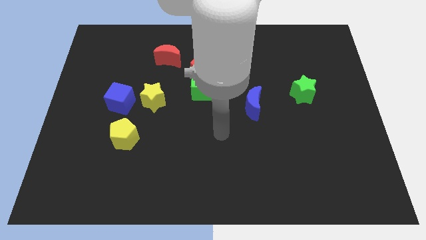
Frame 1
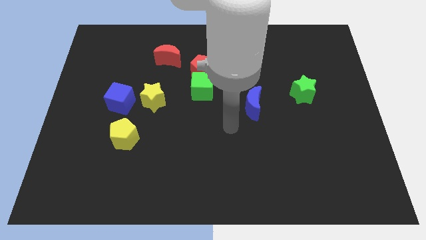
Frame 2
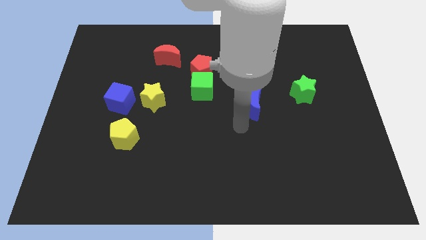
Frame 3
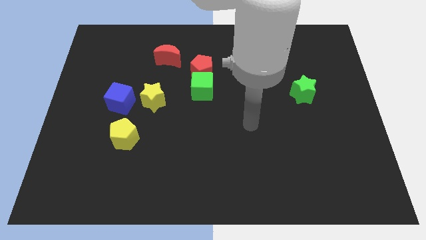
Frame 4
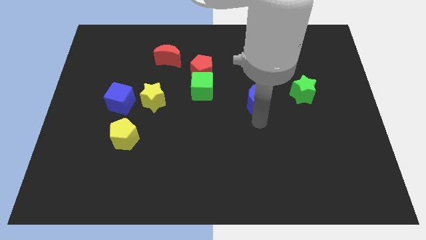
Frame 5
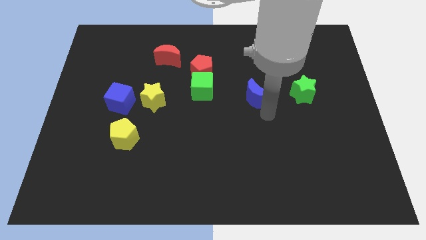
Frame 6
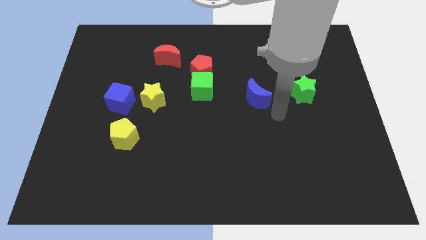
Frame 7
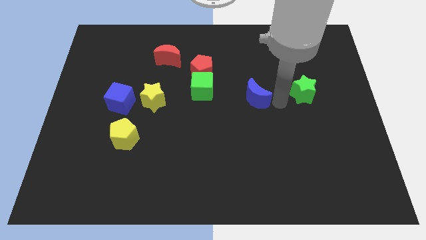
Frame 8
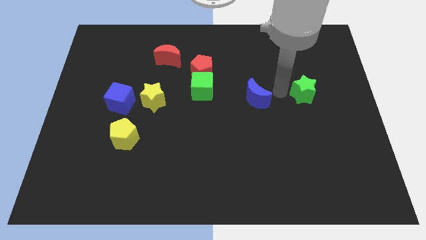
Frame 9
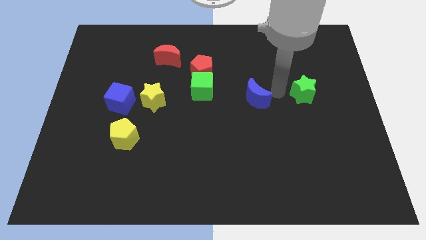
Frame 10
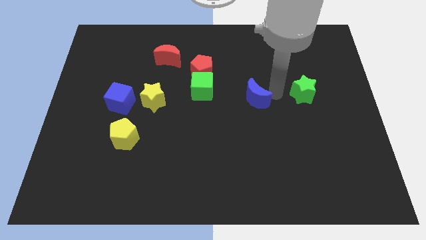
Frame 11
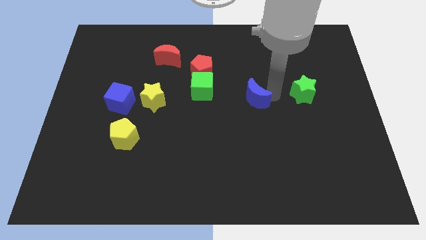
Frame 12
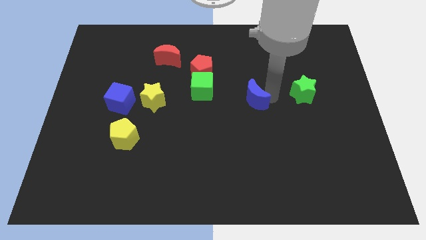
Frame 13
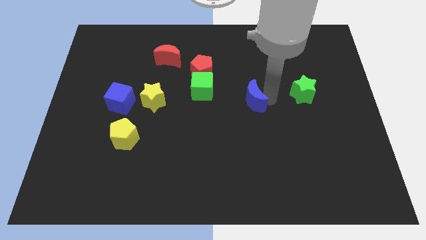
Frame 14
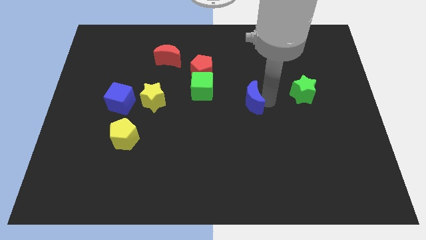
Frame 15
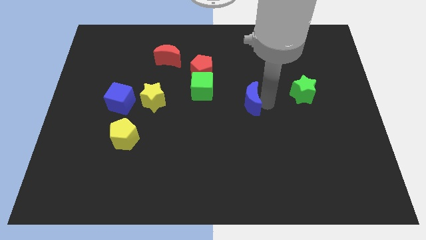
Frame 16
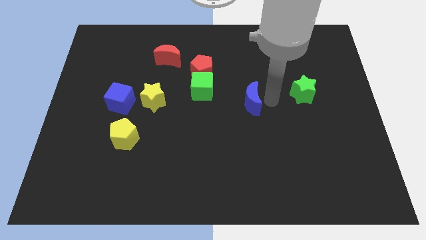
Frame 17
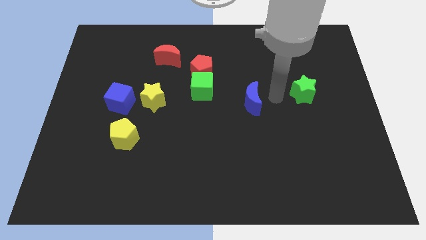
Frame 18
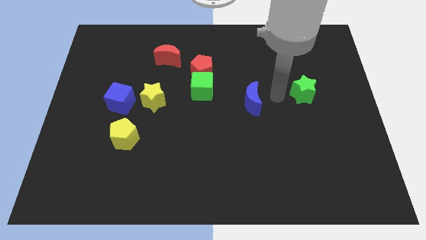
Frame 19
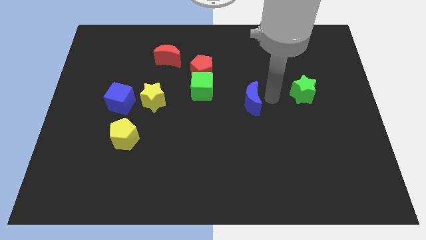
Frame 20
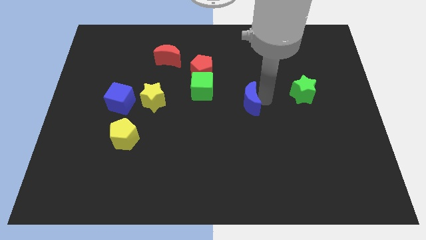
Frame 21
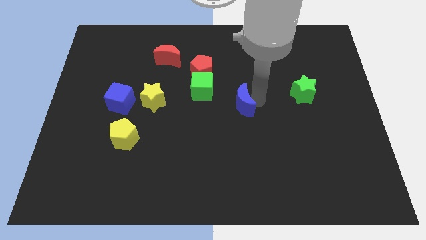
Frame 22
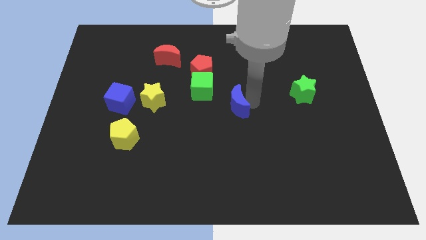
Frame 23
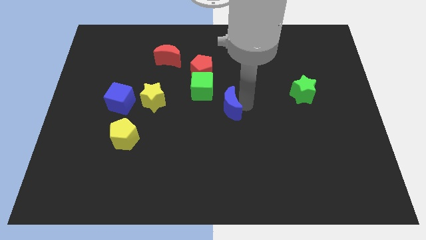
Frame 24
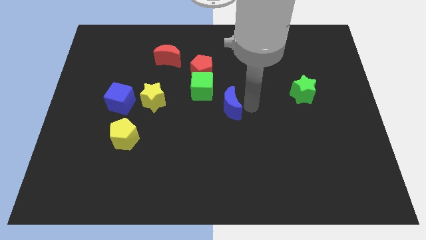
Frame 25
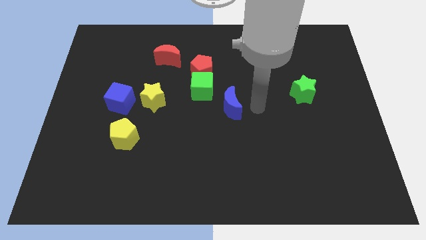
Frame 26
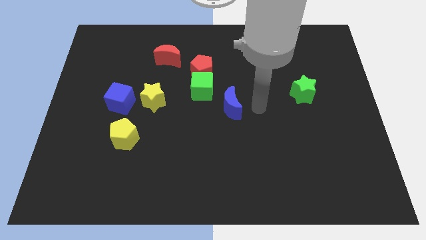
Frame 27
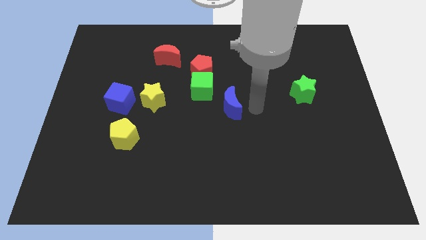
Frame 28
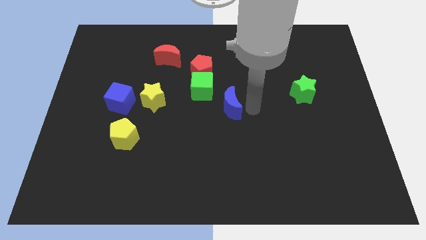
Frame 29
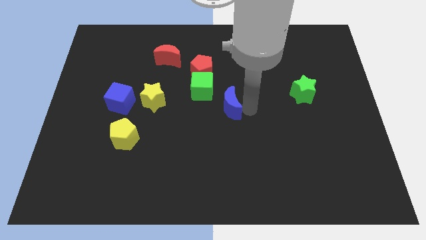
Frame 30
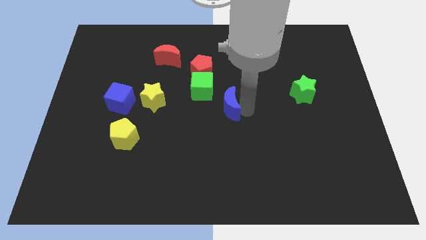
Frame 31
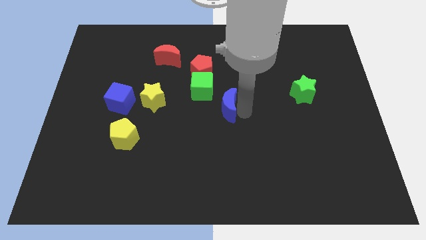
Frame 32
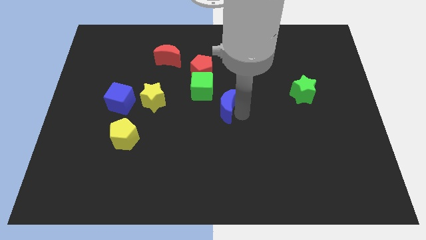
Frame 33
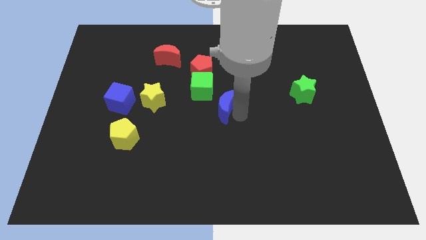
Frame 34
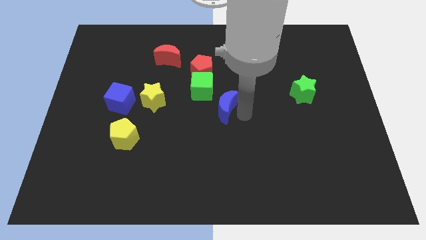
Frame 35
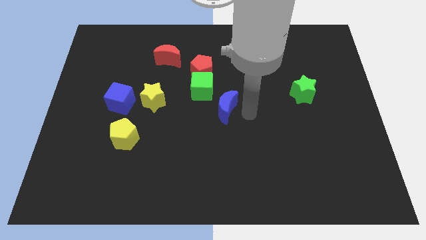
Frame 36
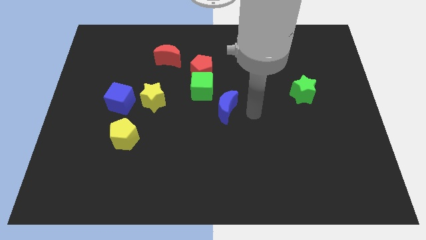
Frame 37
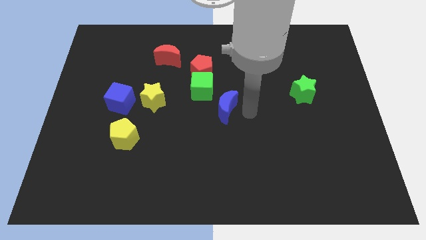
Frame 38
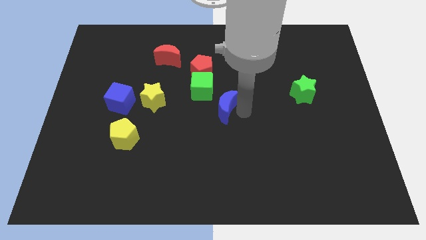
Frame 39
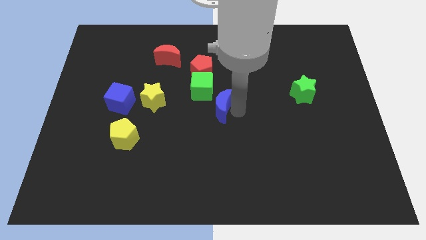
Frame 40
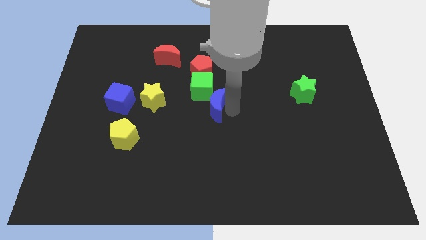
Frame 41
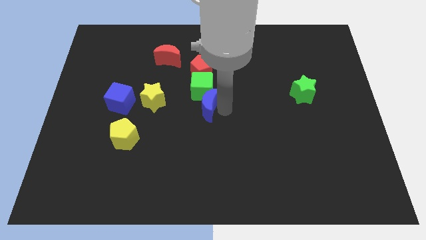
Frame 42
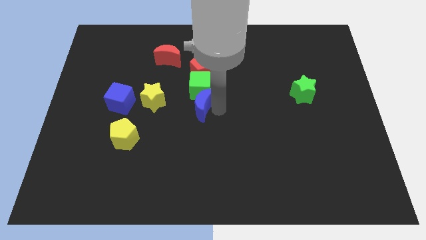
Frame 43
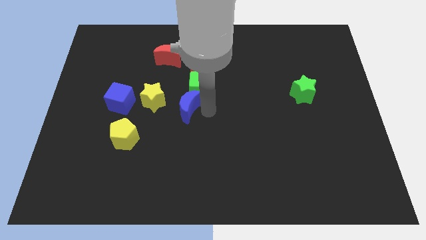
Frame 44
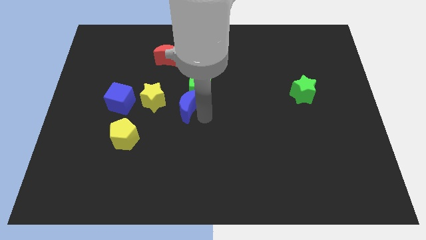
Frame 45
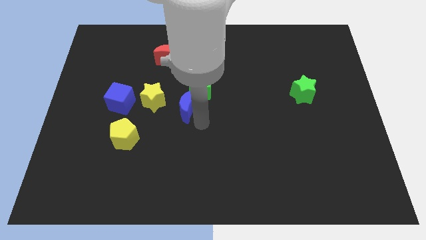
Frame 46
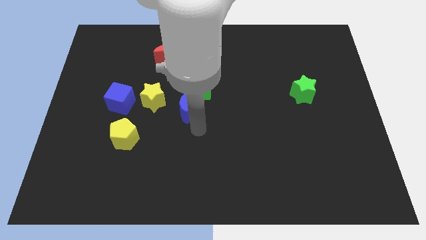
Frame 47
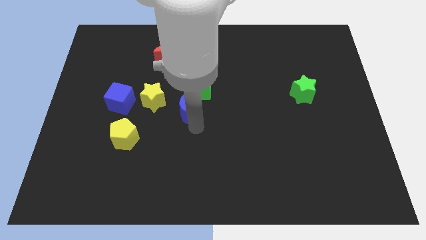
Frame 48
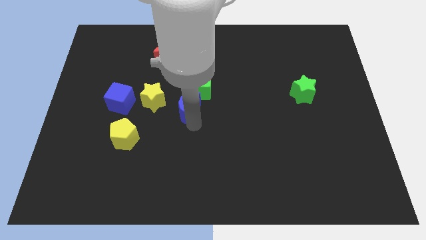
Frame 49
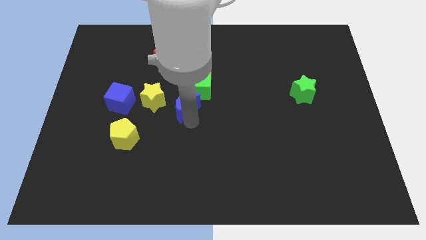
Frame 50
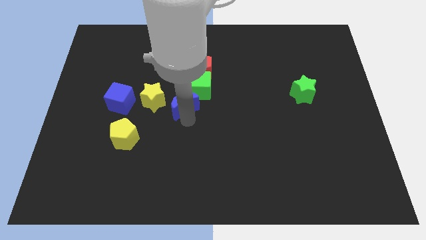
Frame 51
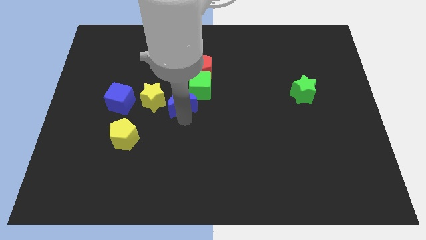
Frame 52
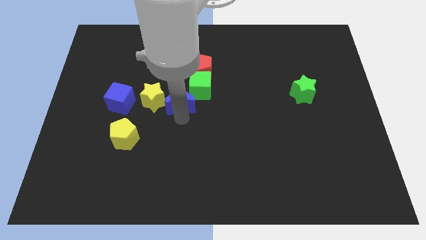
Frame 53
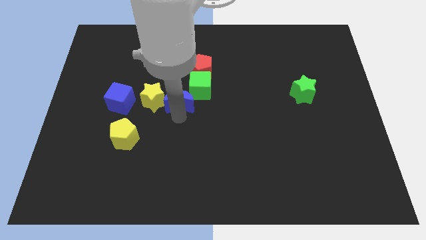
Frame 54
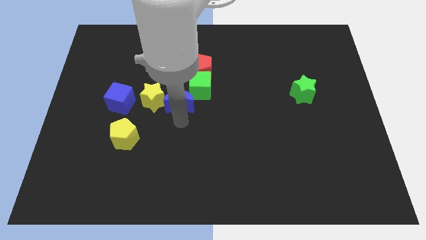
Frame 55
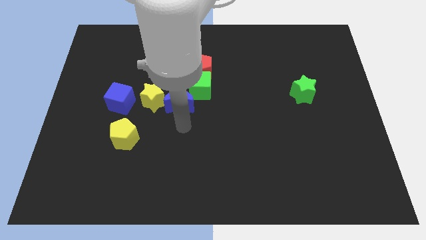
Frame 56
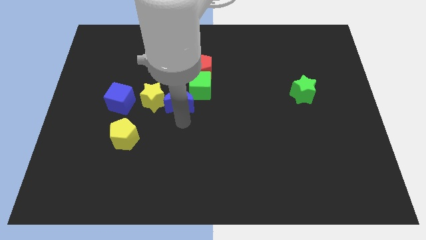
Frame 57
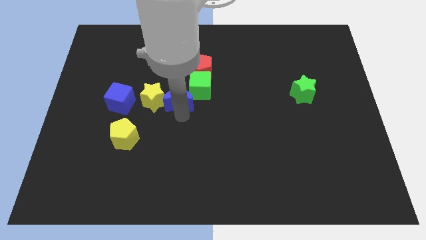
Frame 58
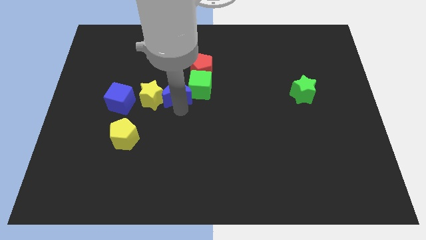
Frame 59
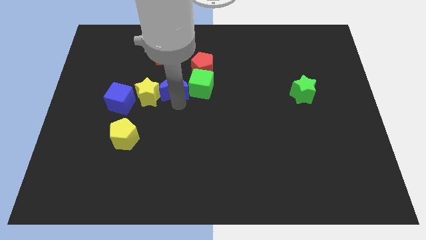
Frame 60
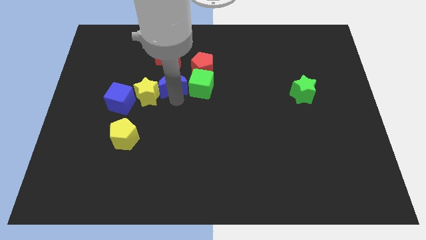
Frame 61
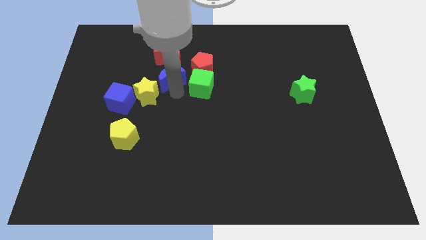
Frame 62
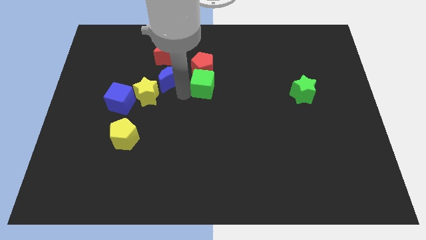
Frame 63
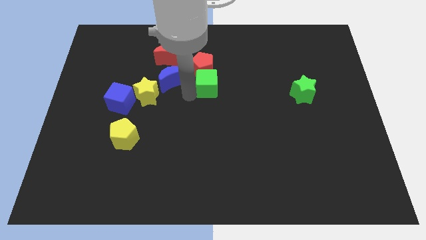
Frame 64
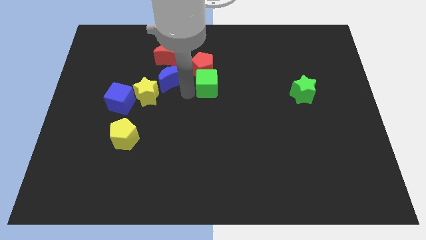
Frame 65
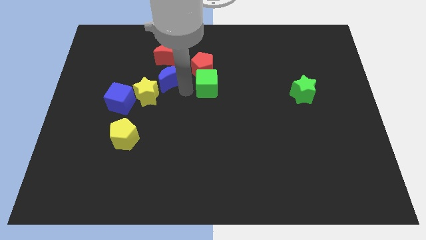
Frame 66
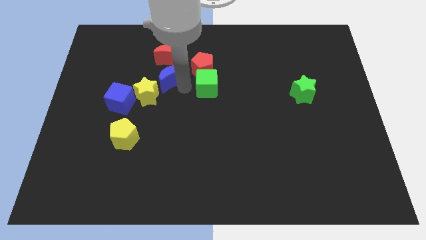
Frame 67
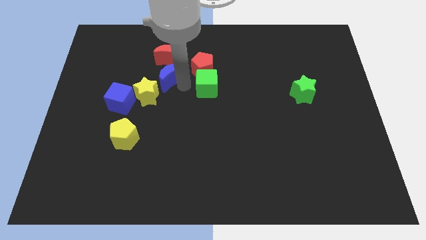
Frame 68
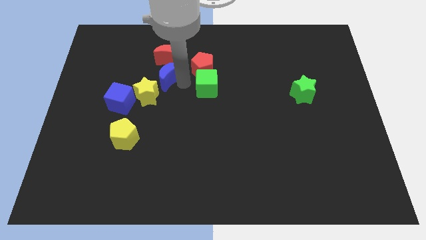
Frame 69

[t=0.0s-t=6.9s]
put the blue moon to the top of the yellow star

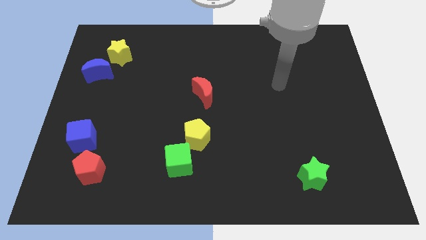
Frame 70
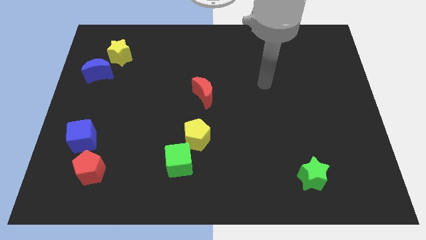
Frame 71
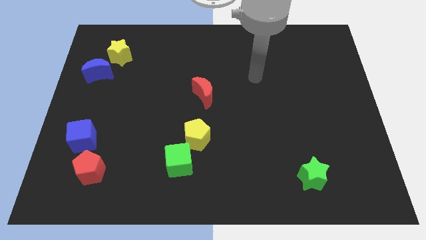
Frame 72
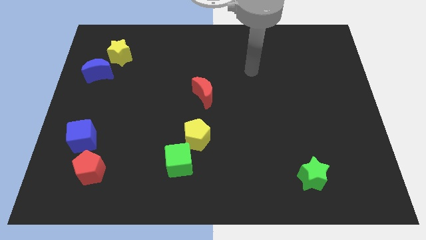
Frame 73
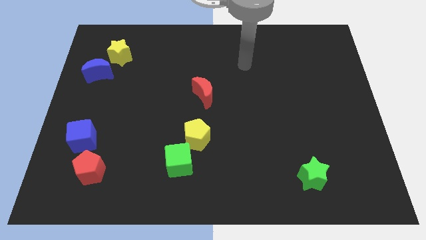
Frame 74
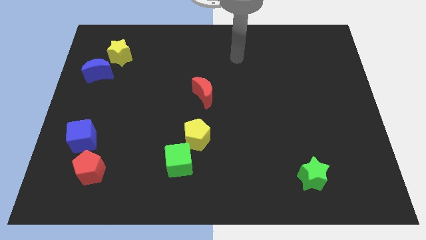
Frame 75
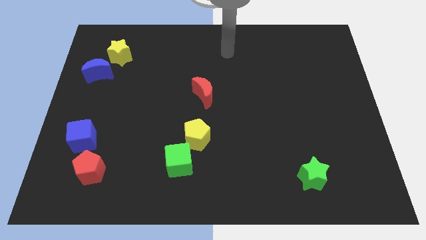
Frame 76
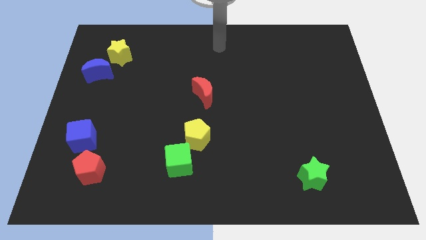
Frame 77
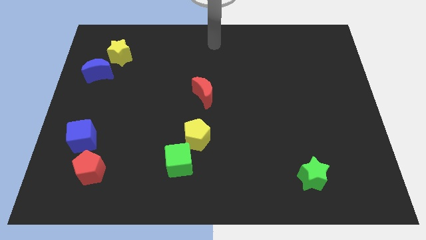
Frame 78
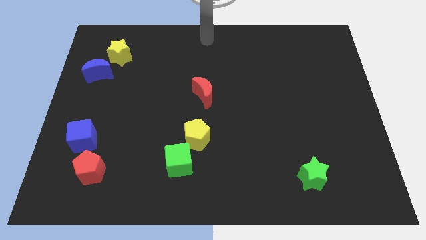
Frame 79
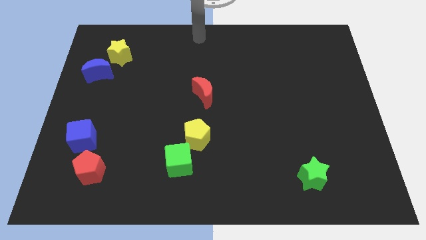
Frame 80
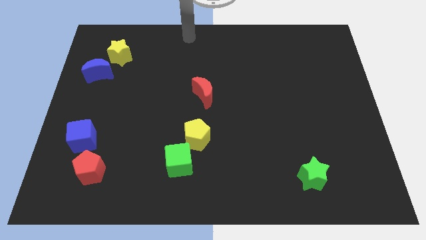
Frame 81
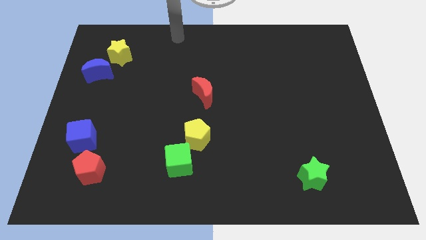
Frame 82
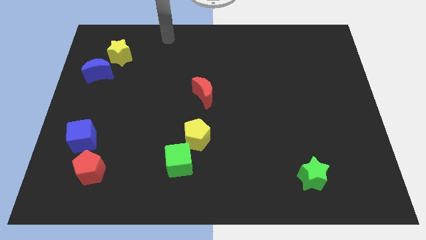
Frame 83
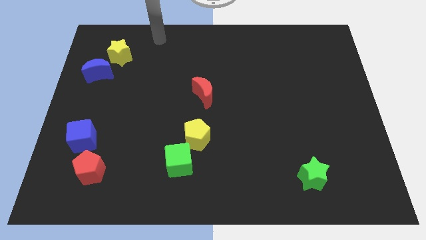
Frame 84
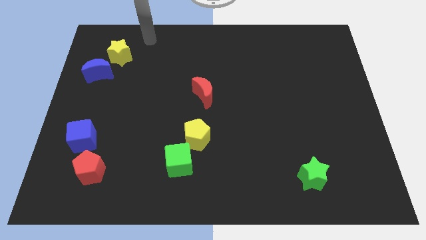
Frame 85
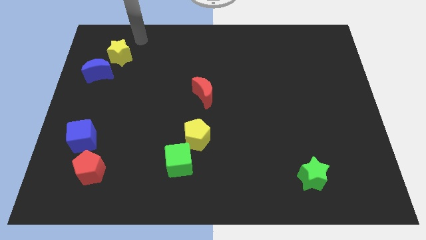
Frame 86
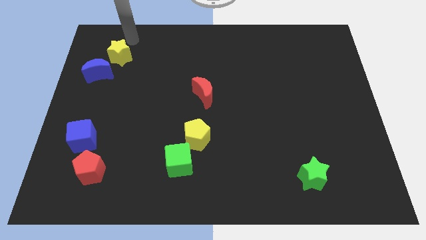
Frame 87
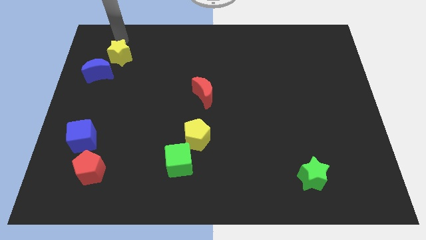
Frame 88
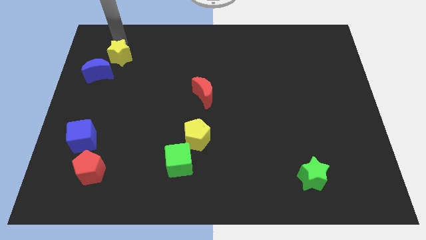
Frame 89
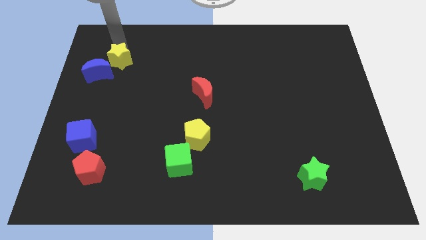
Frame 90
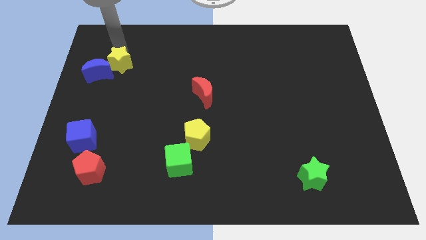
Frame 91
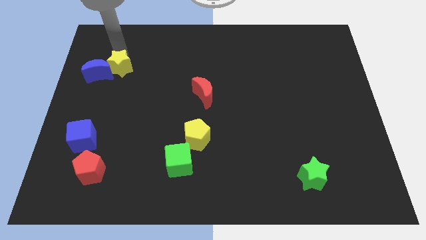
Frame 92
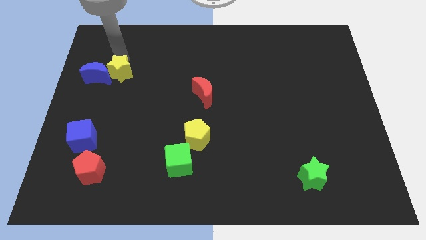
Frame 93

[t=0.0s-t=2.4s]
slide the yellow star diagonally down and to the right of the blue moon
